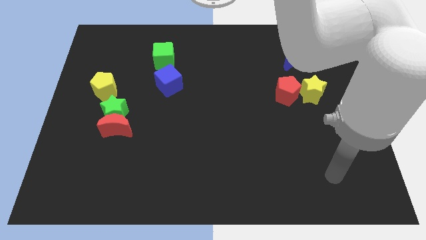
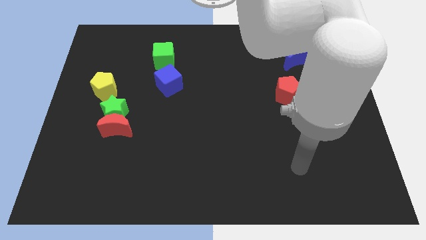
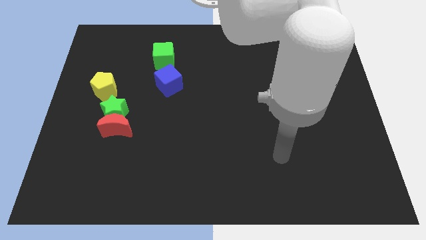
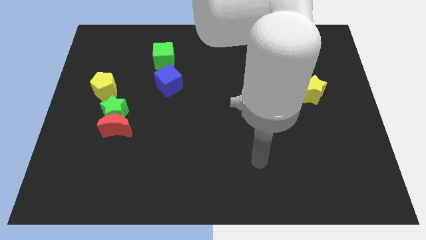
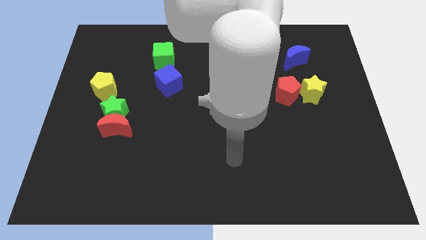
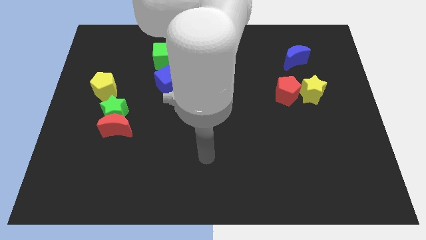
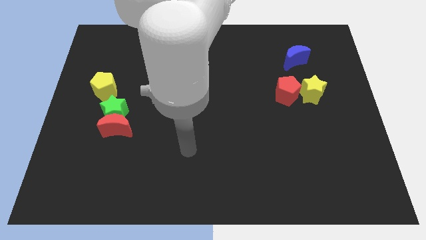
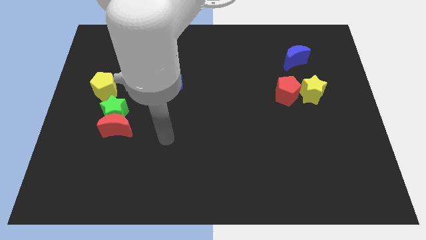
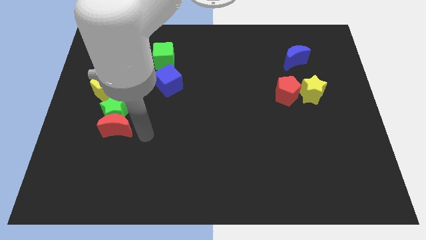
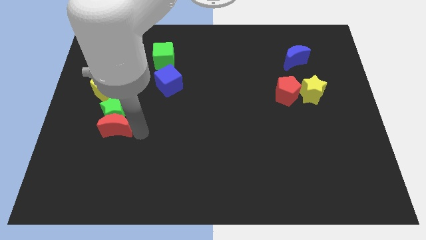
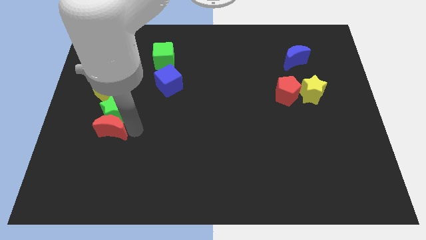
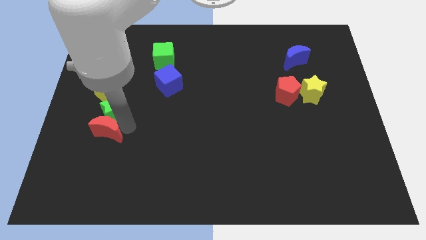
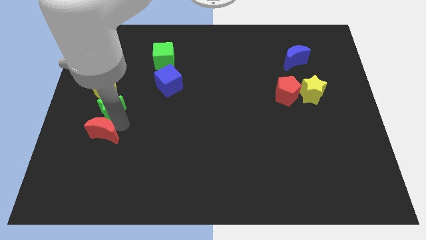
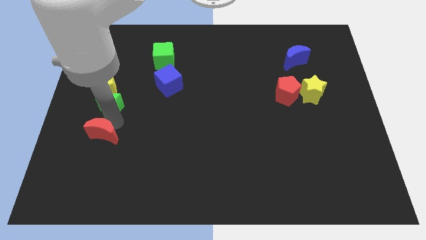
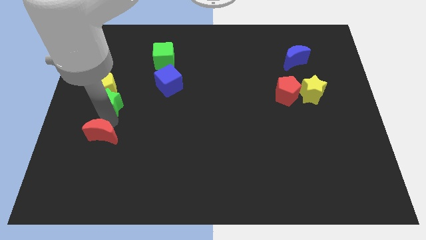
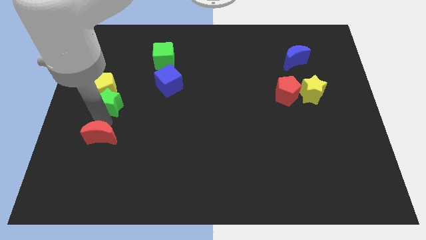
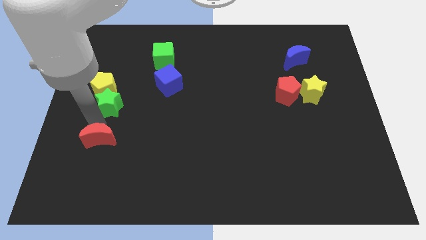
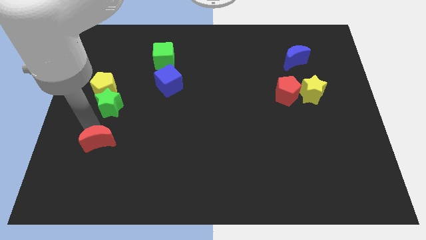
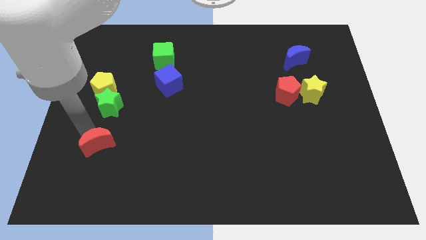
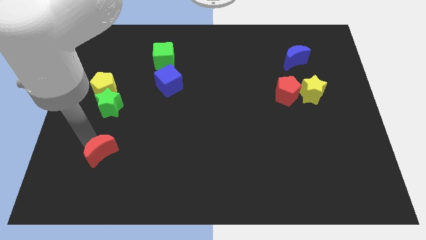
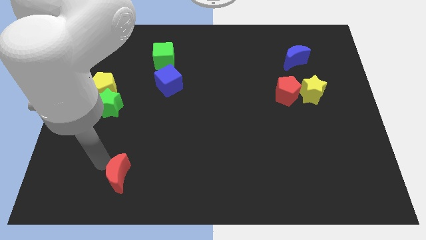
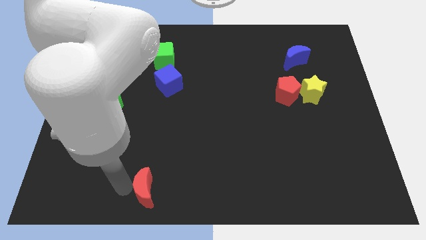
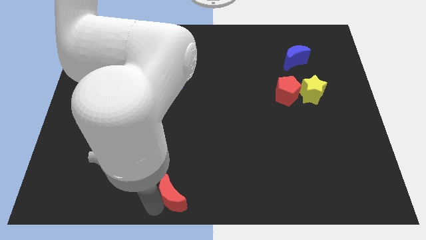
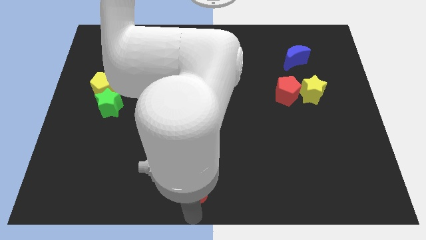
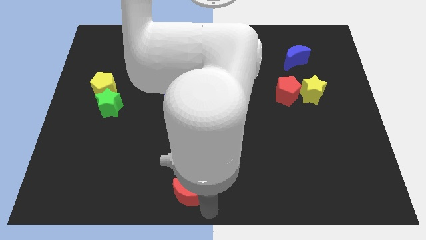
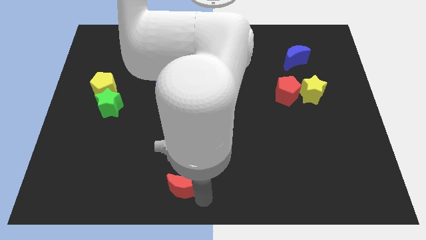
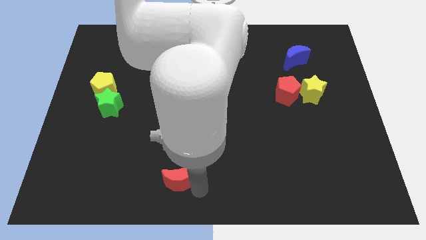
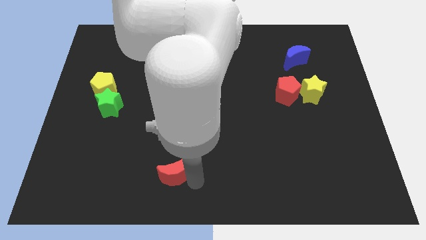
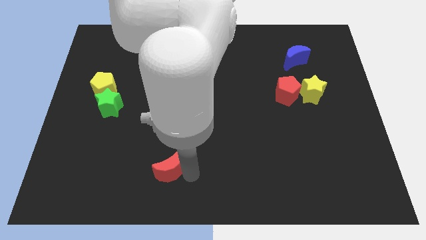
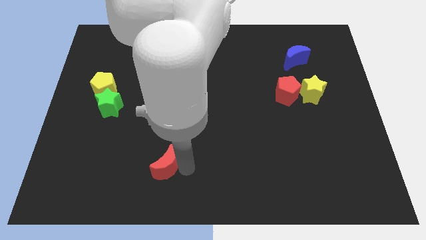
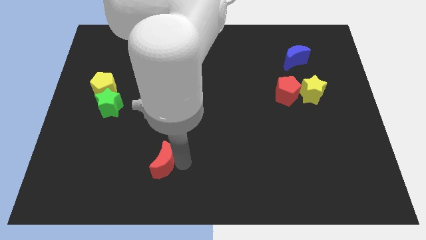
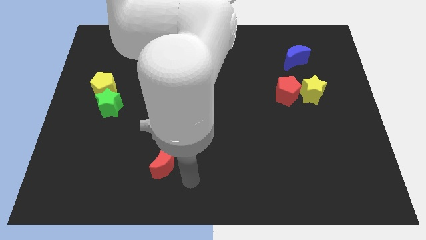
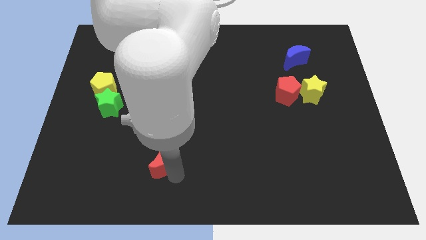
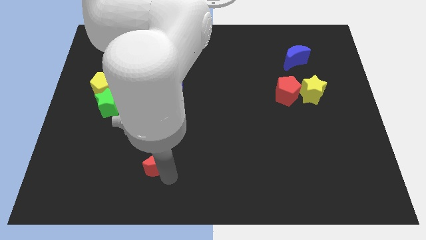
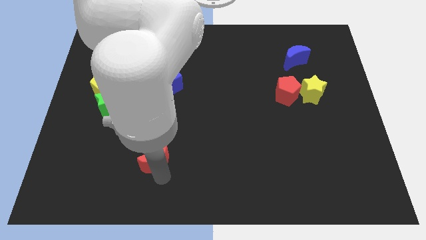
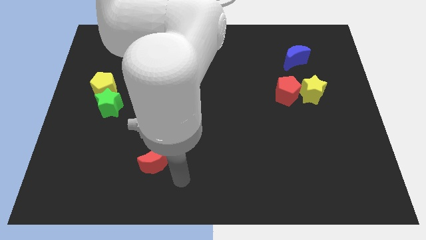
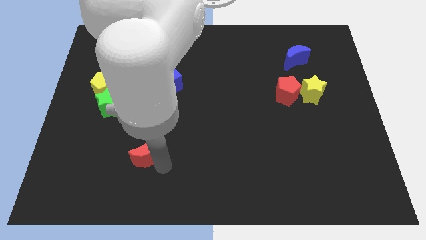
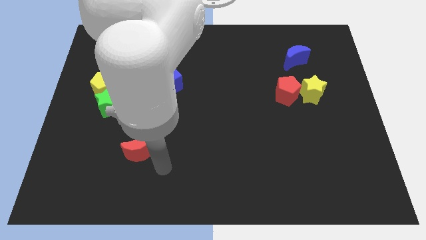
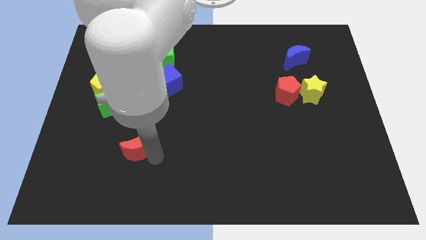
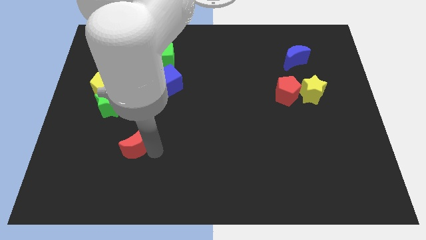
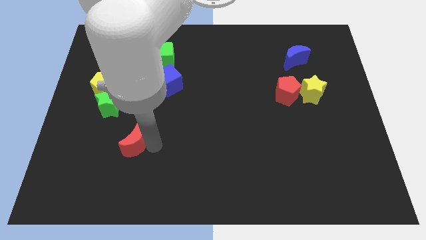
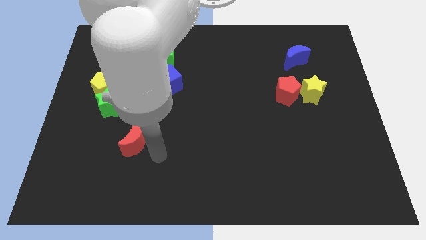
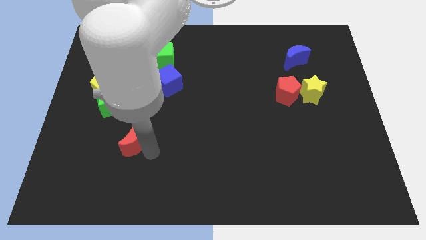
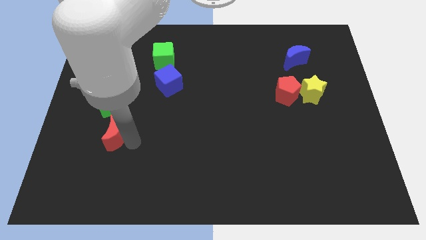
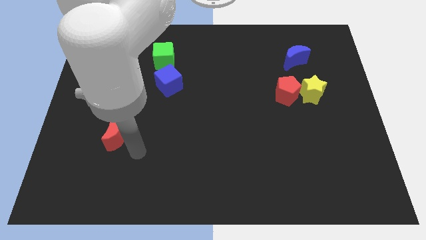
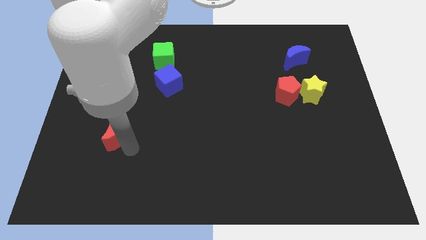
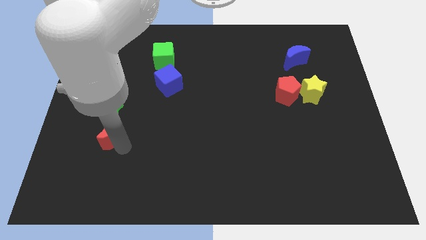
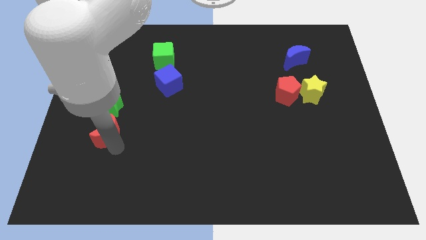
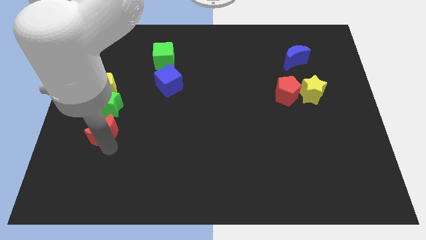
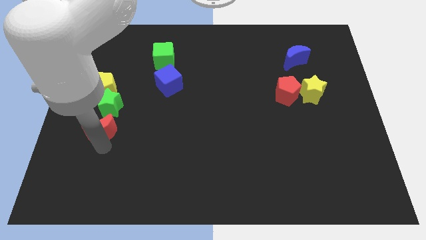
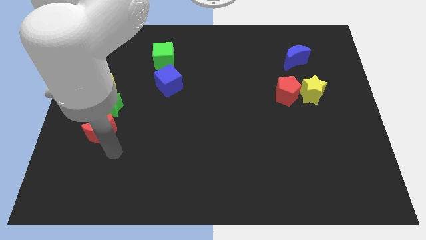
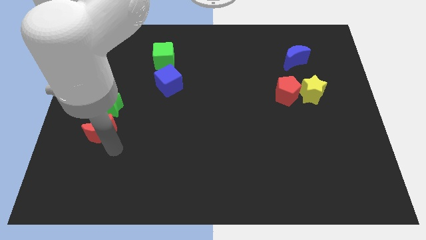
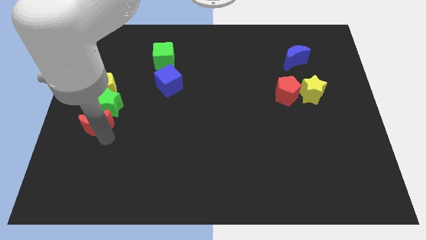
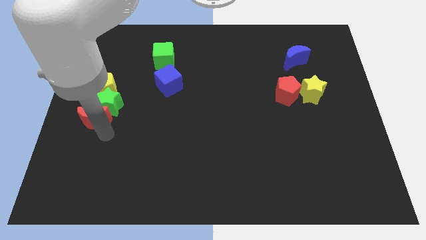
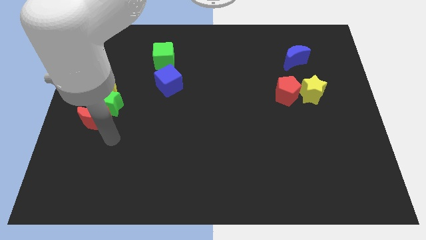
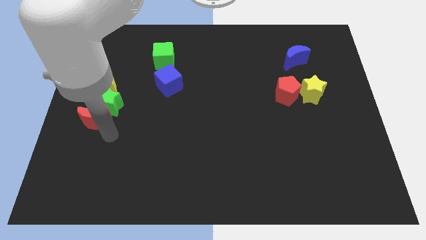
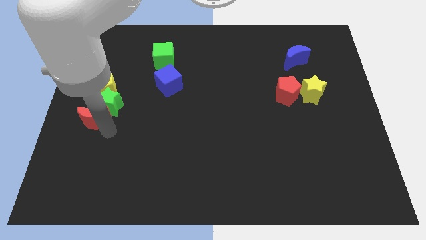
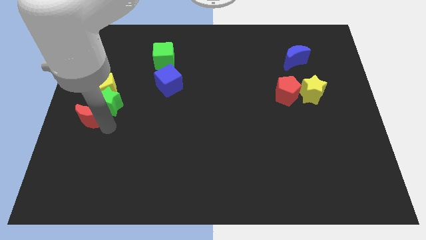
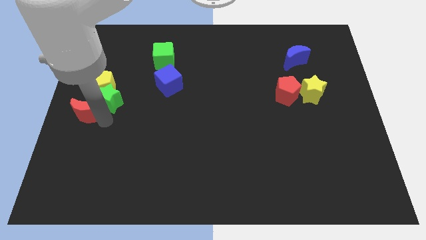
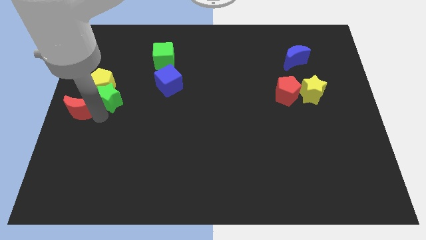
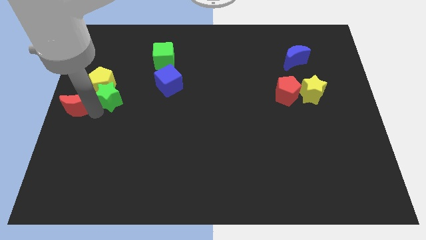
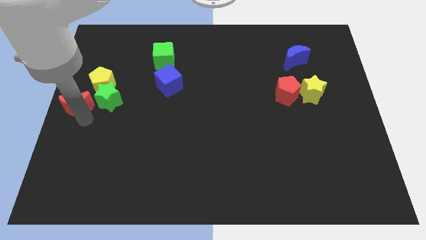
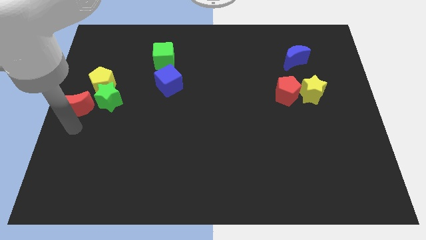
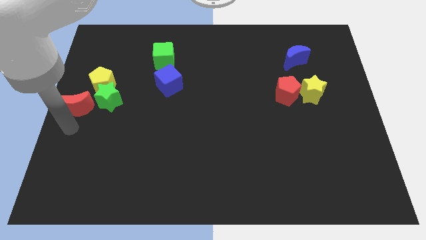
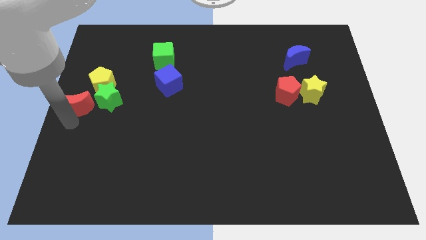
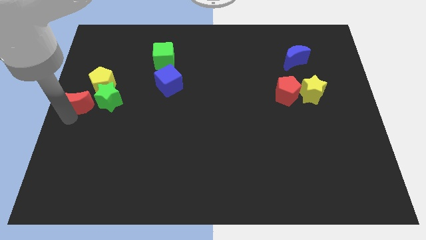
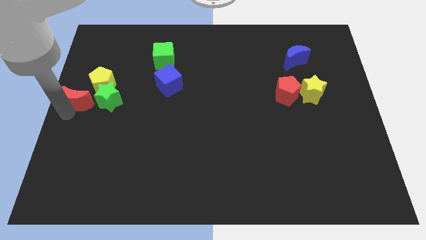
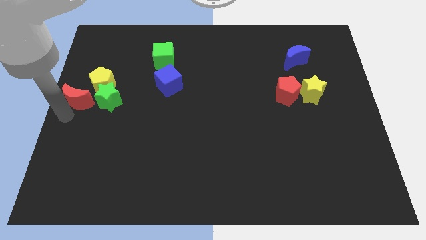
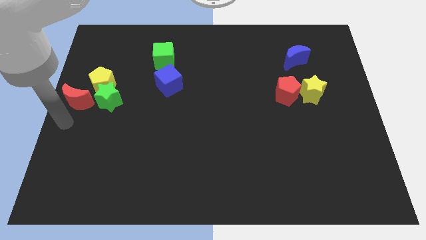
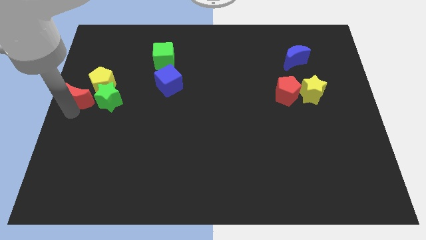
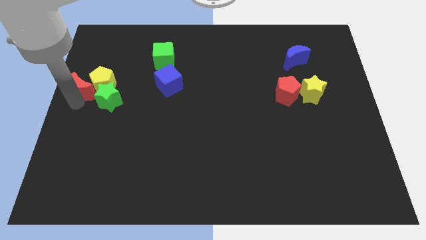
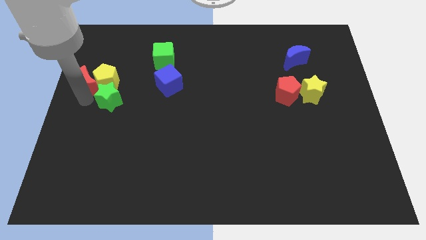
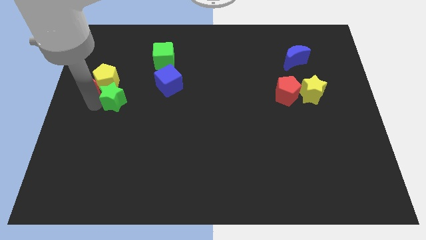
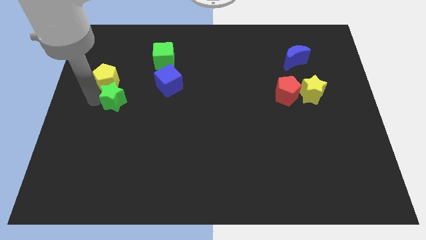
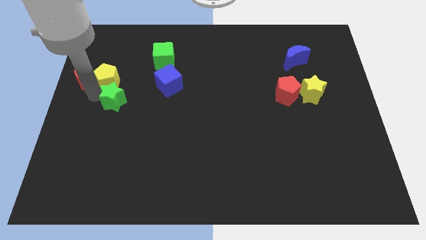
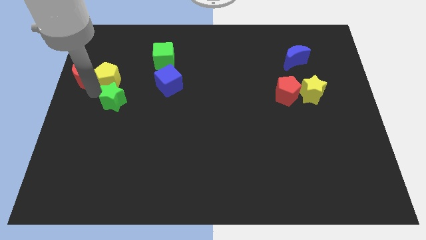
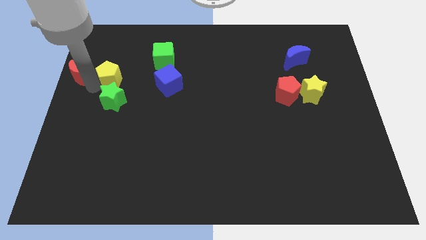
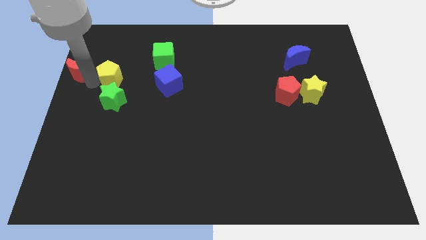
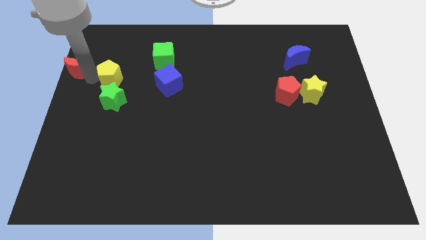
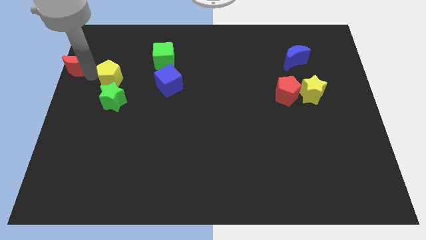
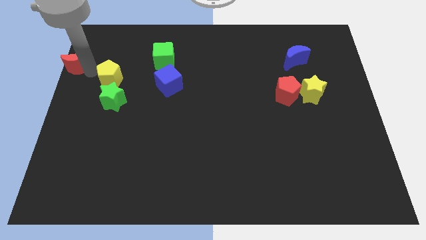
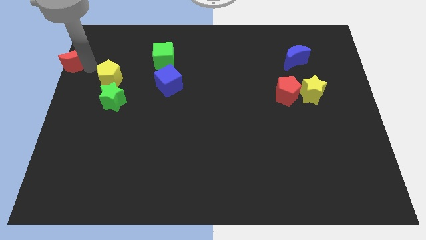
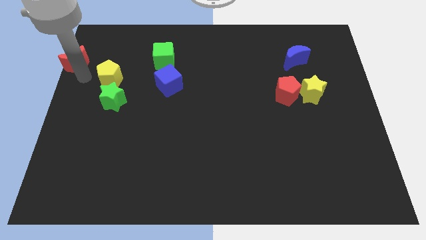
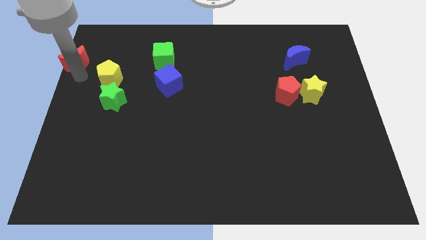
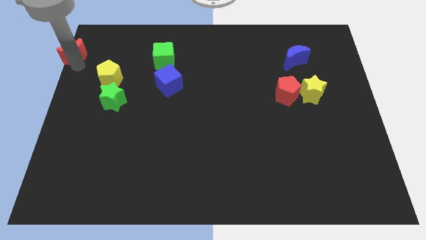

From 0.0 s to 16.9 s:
slide the red moon to the top left
